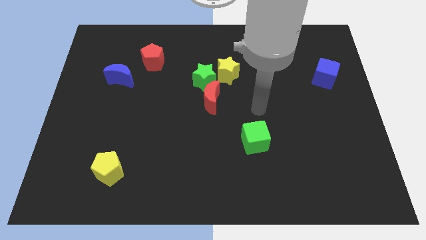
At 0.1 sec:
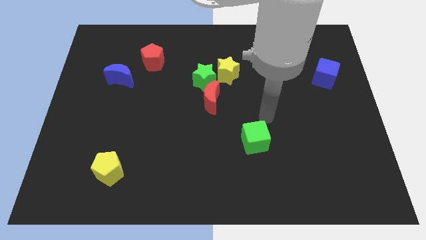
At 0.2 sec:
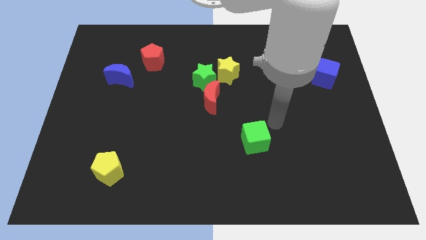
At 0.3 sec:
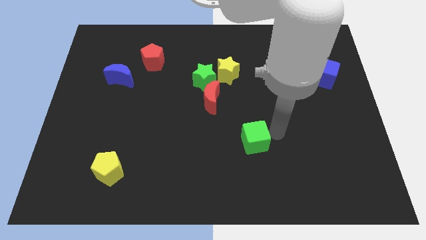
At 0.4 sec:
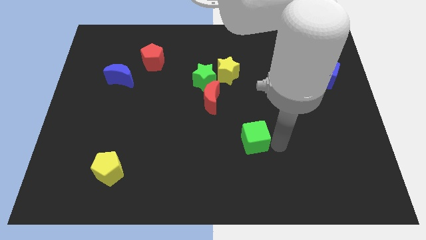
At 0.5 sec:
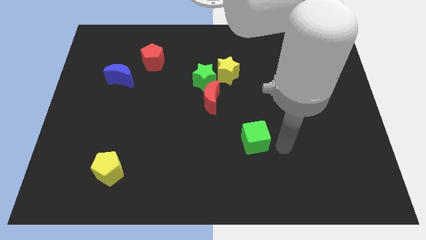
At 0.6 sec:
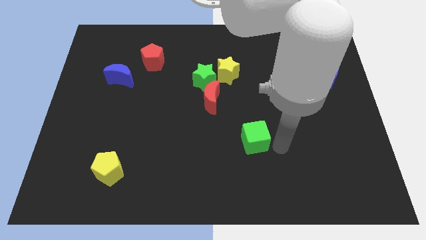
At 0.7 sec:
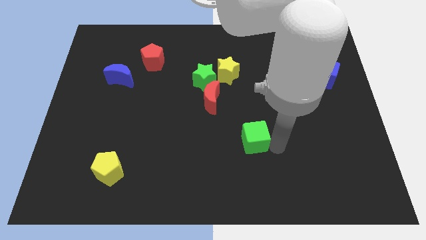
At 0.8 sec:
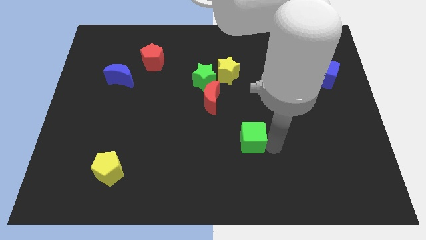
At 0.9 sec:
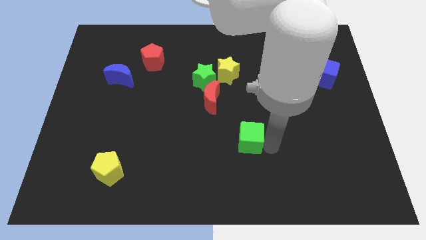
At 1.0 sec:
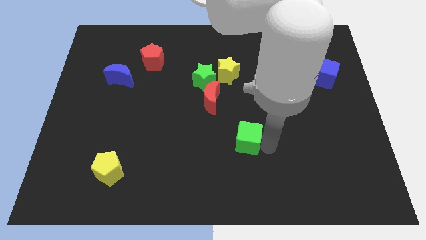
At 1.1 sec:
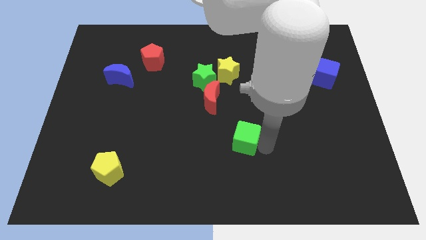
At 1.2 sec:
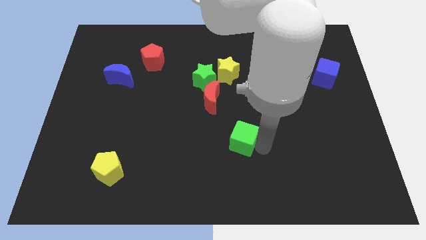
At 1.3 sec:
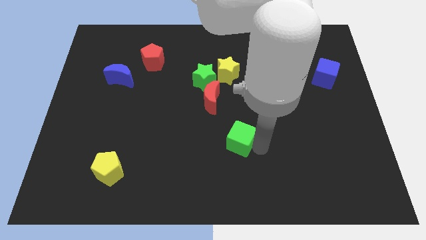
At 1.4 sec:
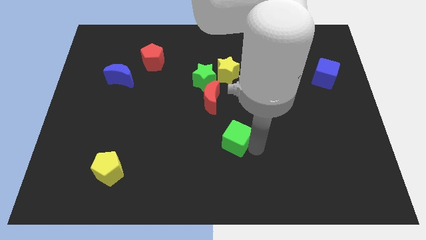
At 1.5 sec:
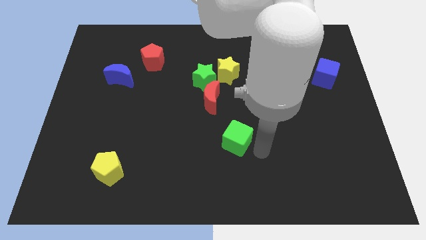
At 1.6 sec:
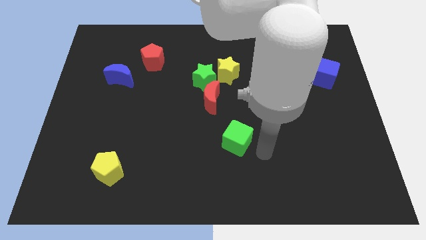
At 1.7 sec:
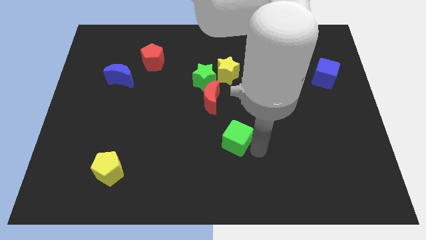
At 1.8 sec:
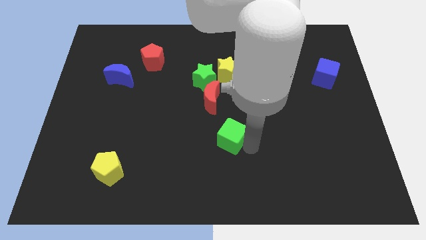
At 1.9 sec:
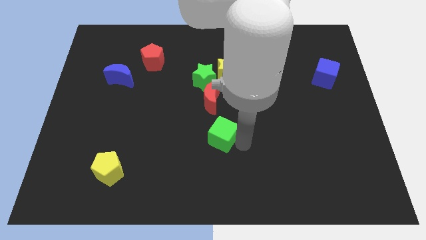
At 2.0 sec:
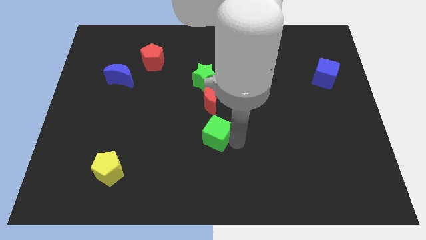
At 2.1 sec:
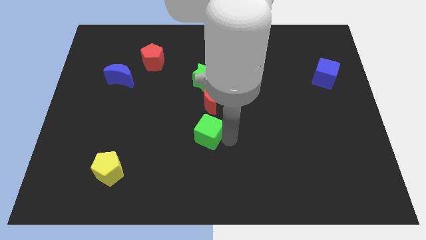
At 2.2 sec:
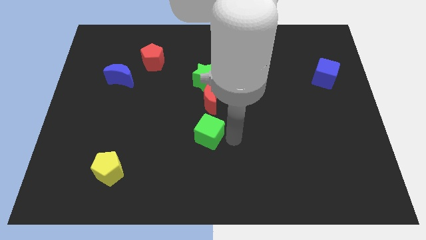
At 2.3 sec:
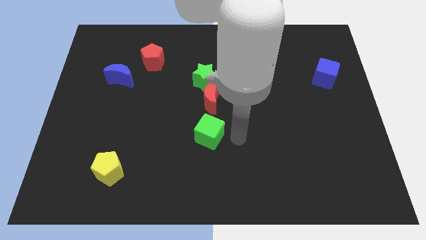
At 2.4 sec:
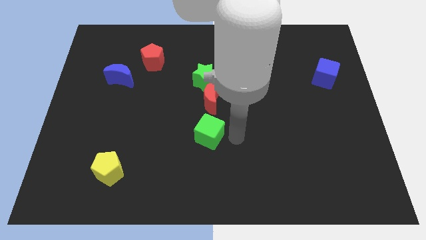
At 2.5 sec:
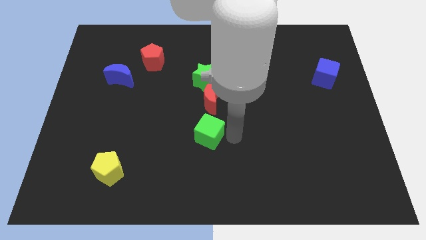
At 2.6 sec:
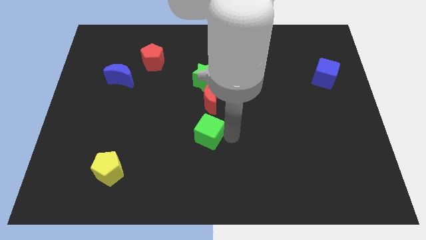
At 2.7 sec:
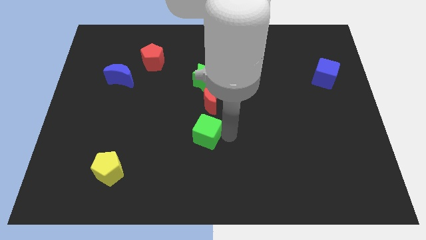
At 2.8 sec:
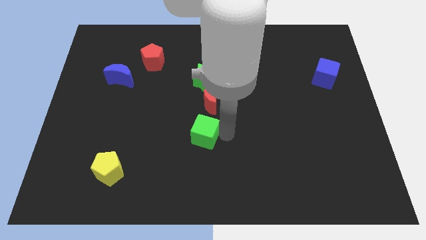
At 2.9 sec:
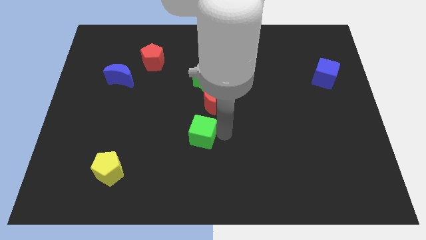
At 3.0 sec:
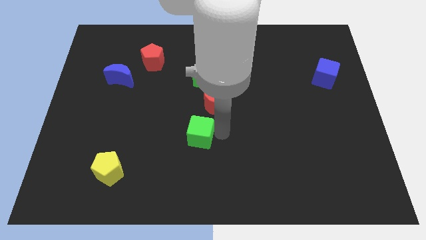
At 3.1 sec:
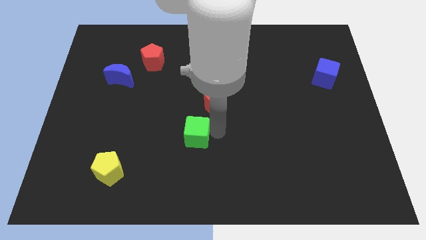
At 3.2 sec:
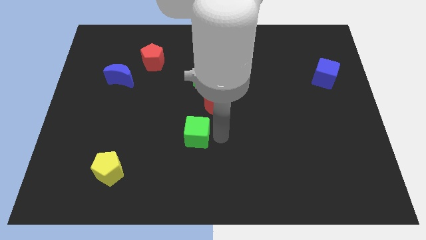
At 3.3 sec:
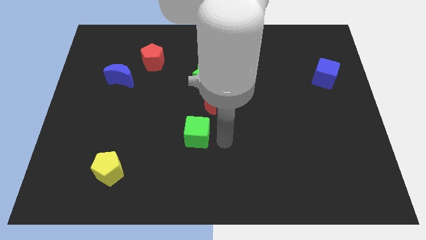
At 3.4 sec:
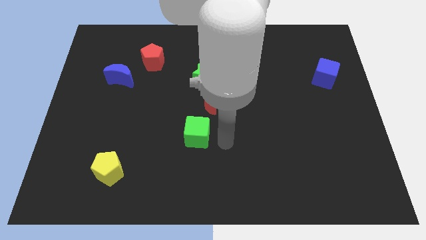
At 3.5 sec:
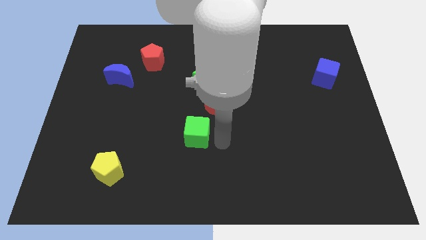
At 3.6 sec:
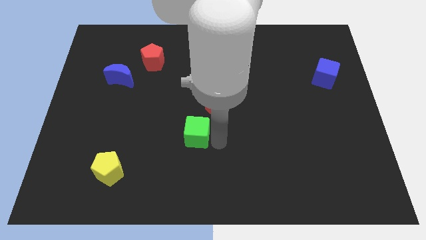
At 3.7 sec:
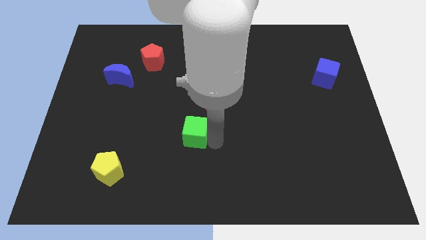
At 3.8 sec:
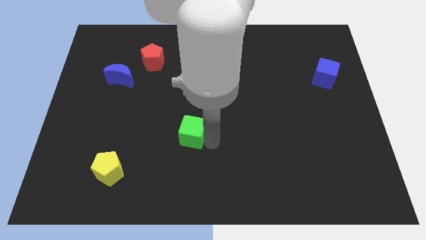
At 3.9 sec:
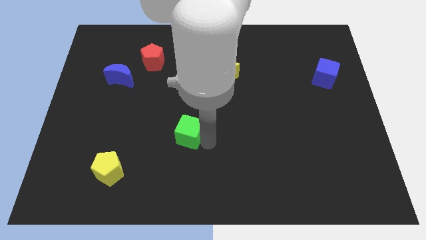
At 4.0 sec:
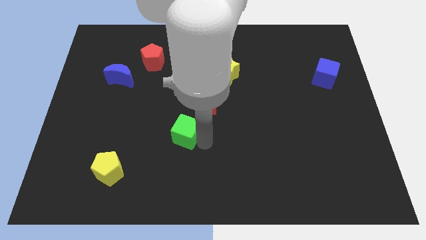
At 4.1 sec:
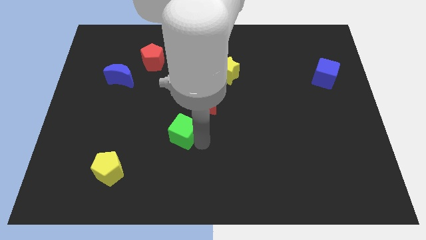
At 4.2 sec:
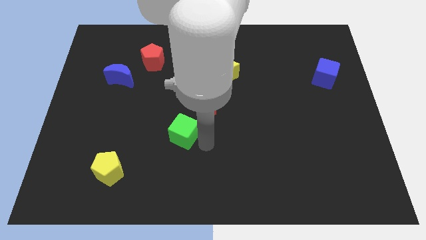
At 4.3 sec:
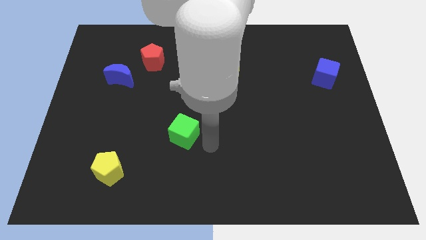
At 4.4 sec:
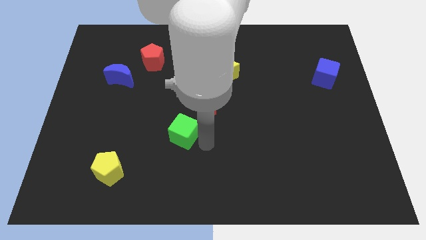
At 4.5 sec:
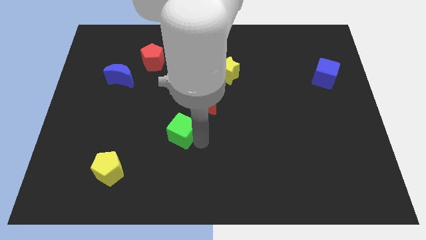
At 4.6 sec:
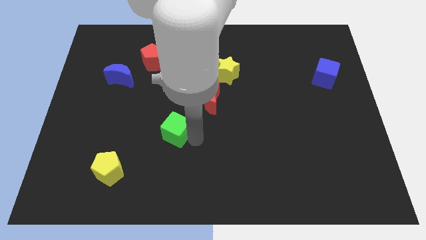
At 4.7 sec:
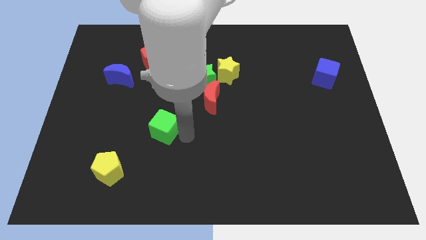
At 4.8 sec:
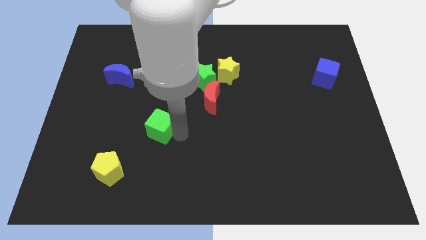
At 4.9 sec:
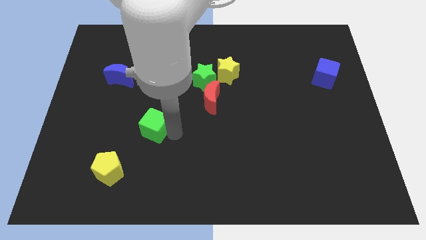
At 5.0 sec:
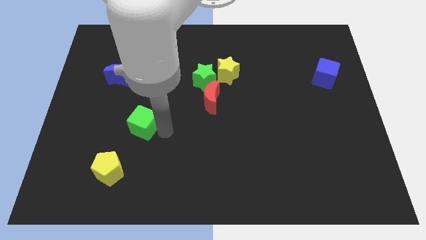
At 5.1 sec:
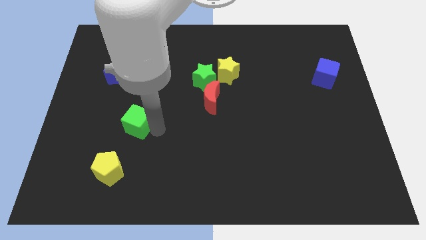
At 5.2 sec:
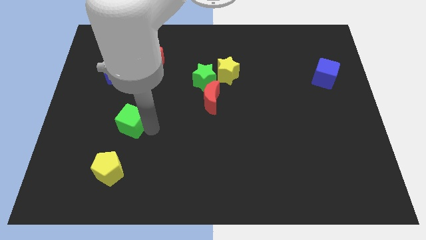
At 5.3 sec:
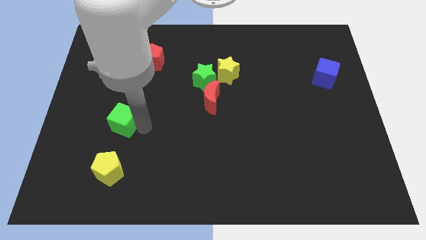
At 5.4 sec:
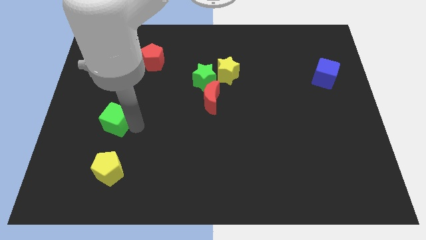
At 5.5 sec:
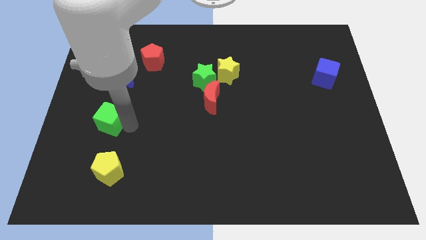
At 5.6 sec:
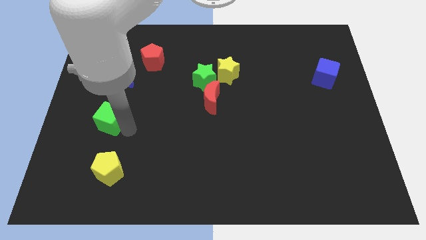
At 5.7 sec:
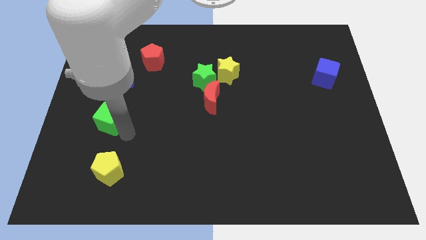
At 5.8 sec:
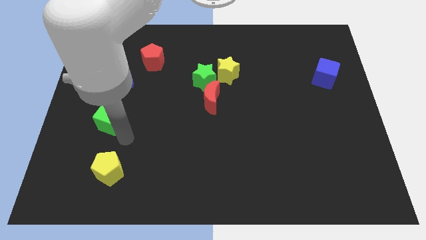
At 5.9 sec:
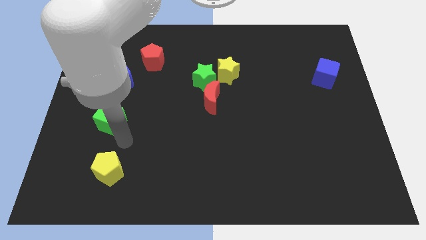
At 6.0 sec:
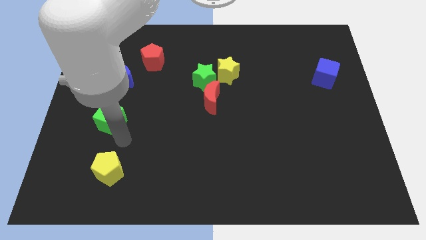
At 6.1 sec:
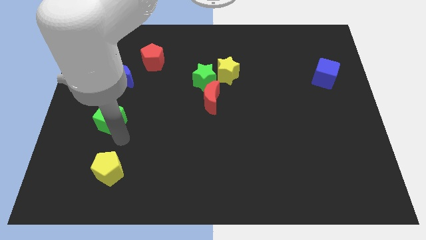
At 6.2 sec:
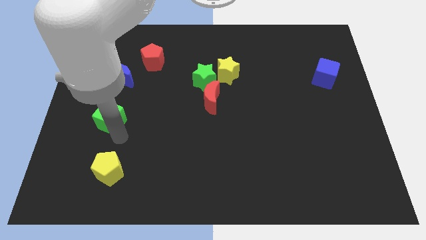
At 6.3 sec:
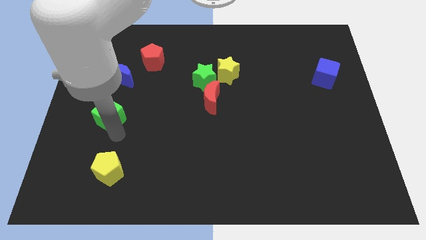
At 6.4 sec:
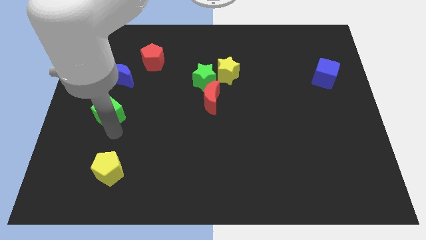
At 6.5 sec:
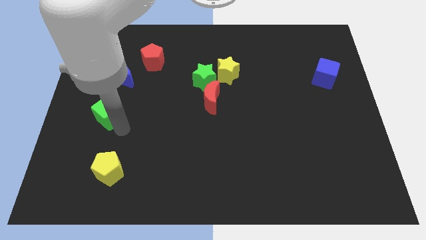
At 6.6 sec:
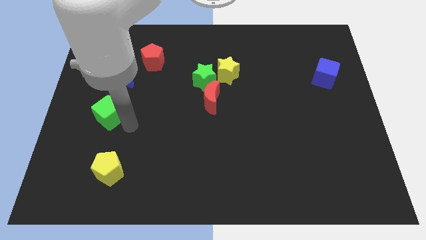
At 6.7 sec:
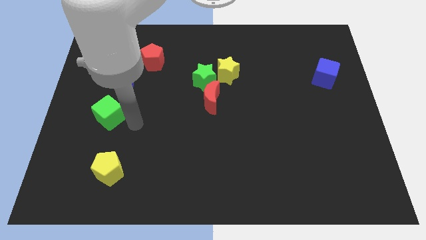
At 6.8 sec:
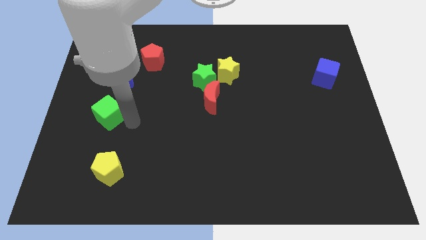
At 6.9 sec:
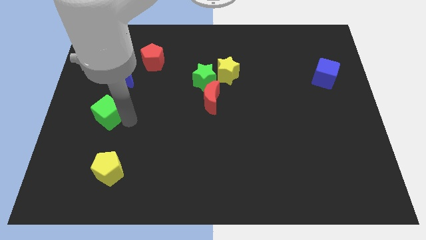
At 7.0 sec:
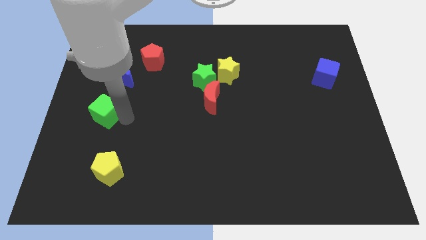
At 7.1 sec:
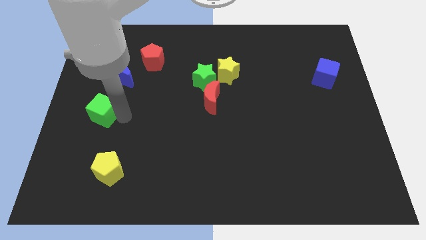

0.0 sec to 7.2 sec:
push the green cube to the left side of the board
